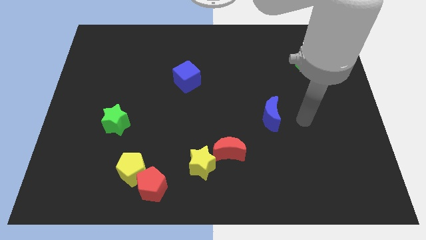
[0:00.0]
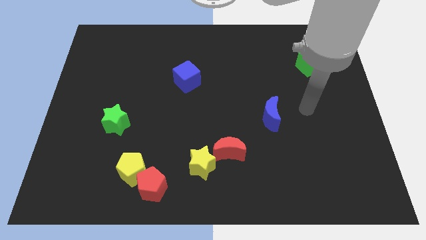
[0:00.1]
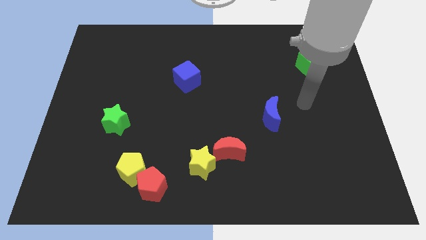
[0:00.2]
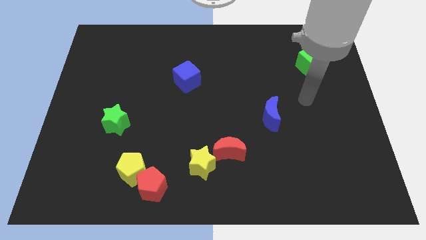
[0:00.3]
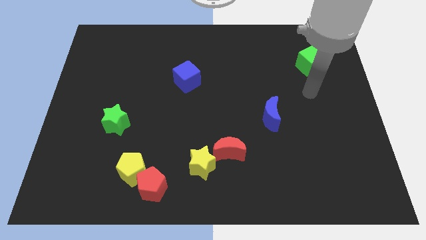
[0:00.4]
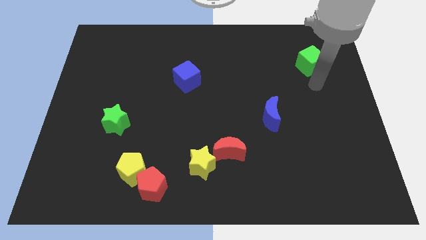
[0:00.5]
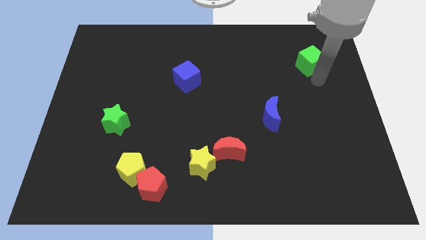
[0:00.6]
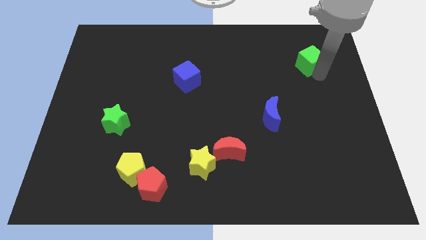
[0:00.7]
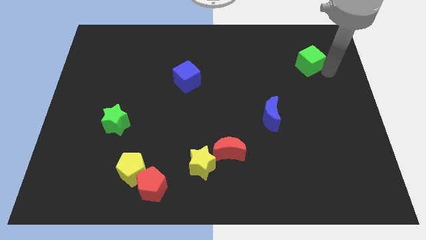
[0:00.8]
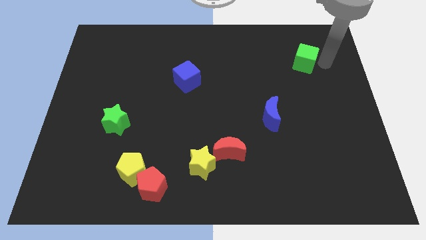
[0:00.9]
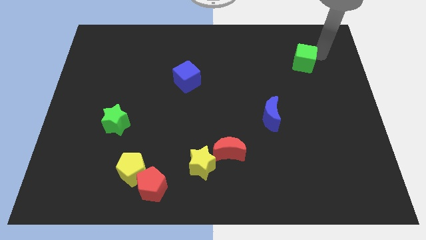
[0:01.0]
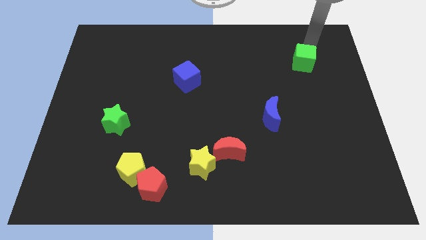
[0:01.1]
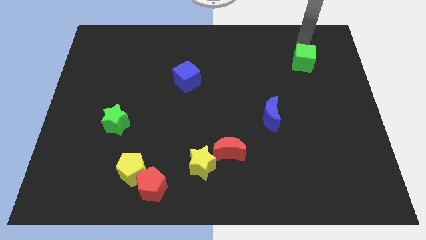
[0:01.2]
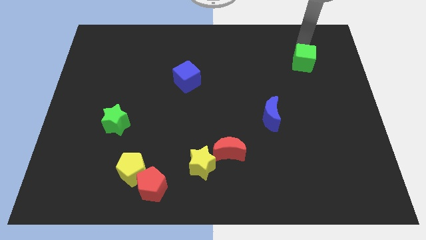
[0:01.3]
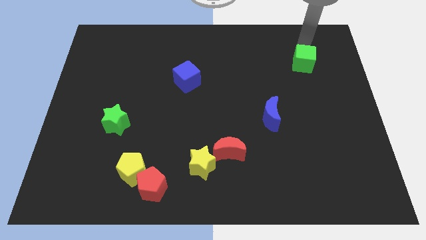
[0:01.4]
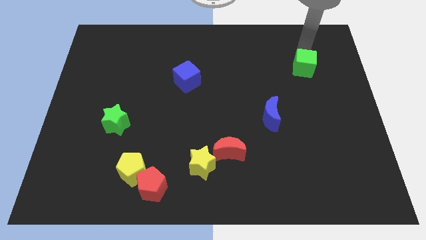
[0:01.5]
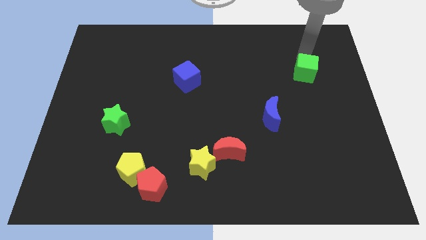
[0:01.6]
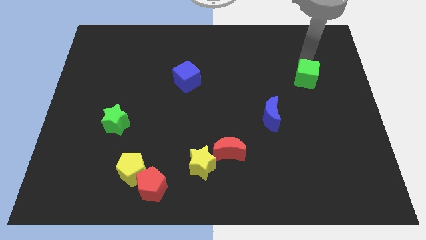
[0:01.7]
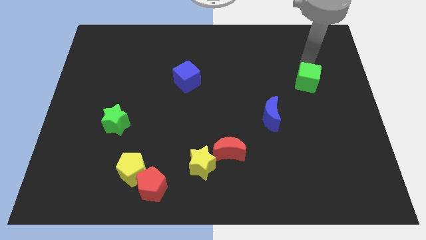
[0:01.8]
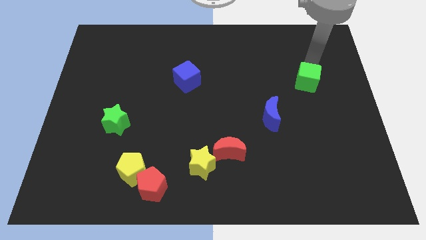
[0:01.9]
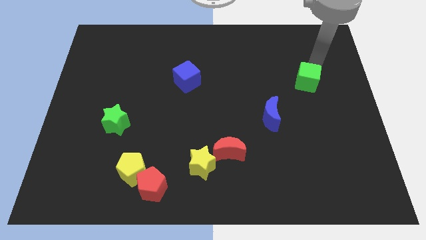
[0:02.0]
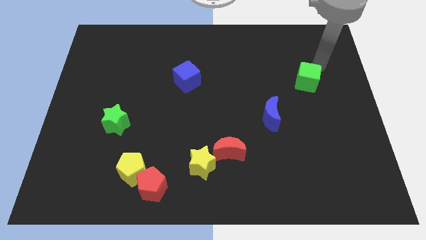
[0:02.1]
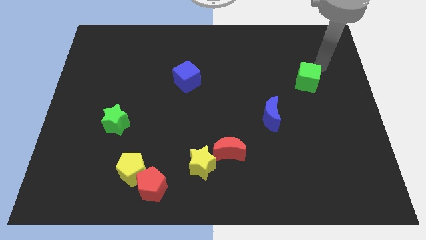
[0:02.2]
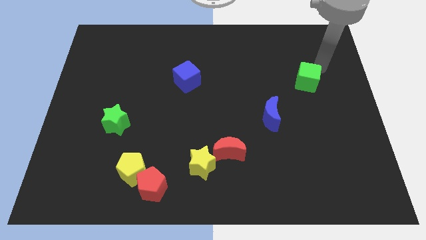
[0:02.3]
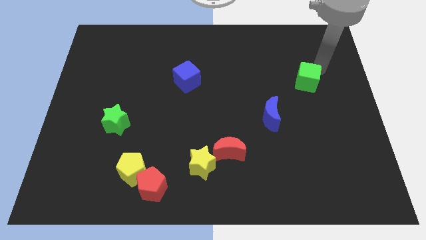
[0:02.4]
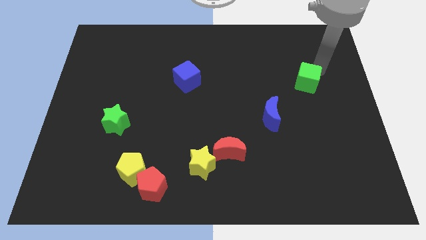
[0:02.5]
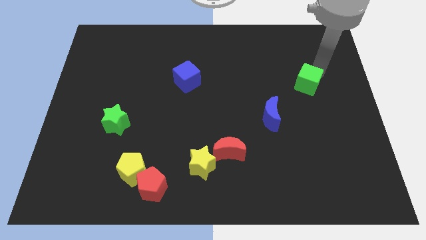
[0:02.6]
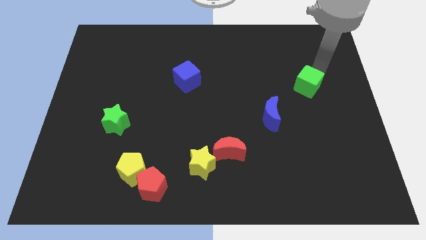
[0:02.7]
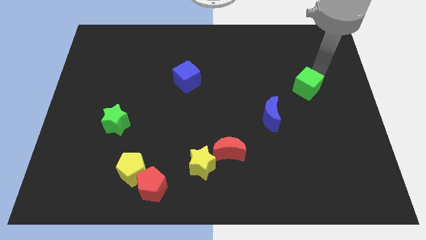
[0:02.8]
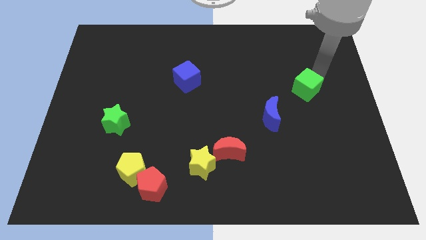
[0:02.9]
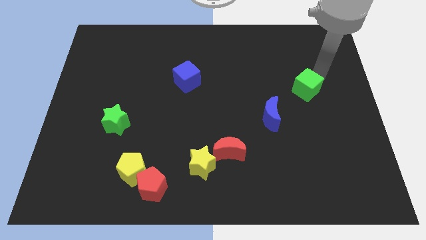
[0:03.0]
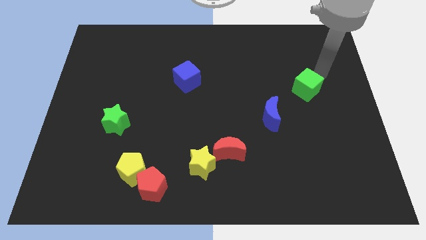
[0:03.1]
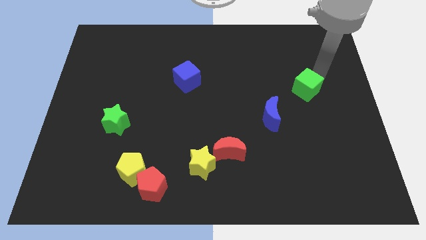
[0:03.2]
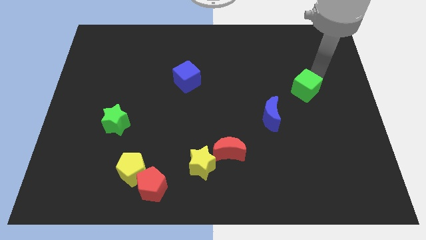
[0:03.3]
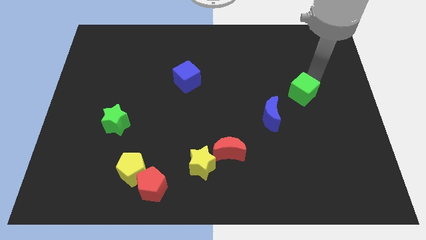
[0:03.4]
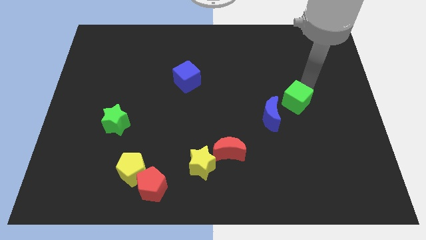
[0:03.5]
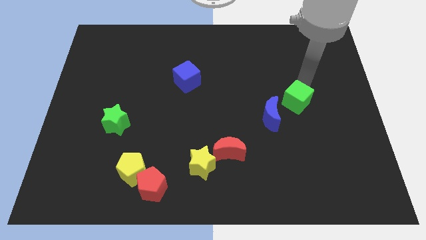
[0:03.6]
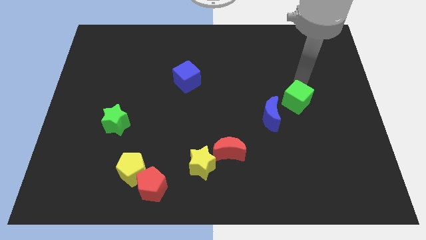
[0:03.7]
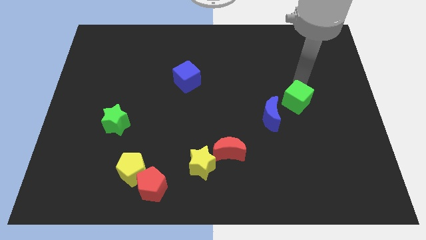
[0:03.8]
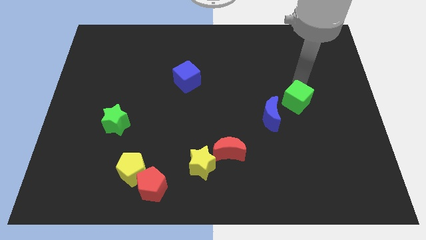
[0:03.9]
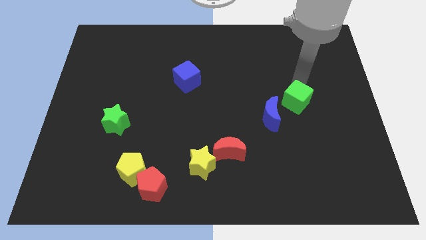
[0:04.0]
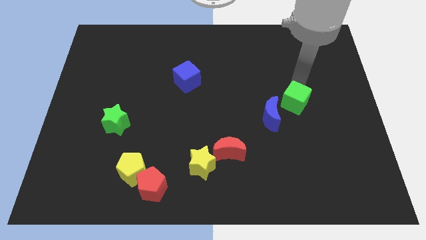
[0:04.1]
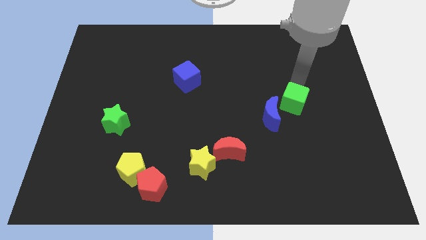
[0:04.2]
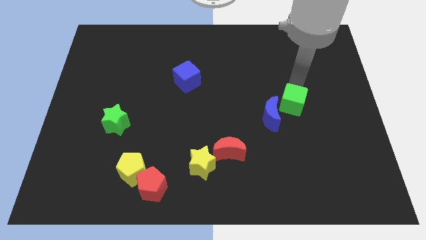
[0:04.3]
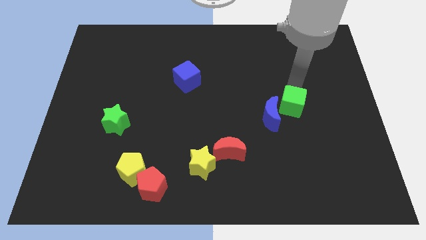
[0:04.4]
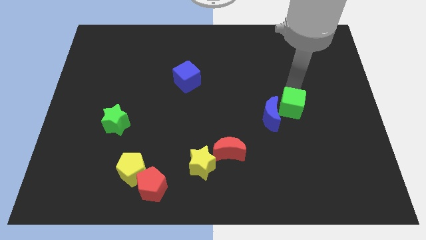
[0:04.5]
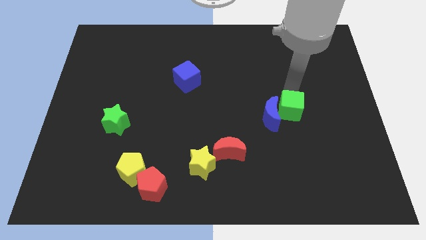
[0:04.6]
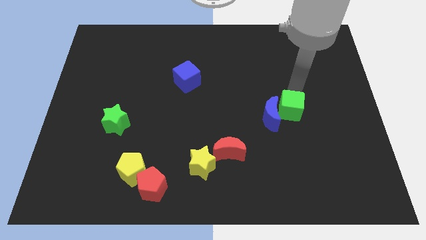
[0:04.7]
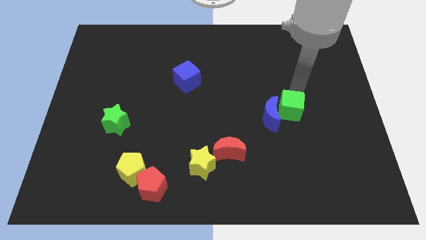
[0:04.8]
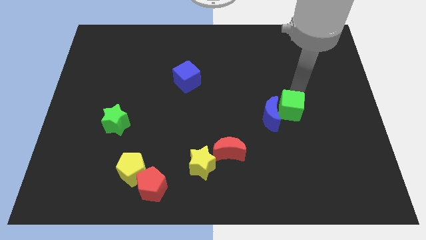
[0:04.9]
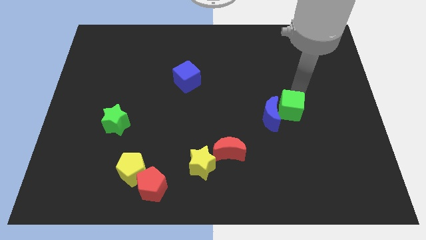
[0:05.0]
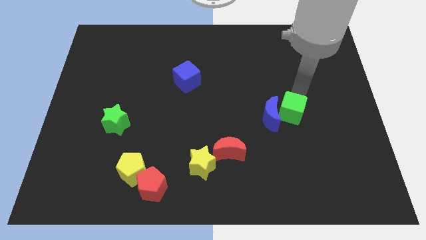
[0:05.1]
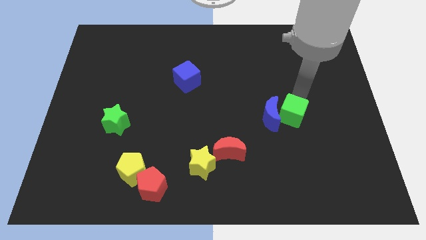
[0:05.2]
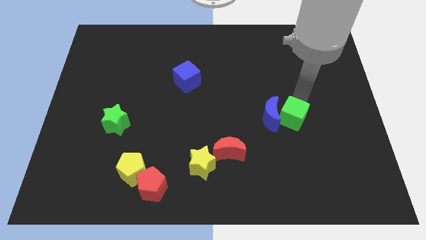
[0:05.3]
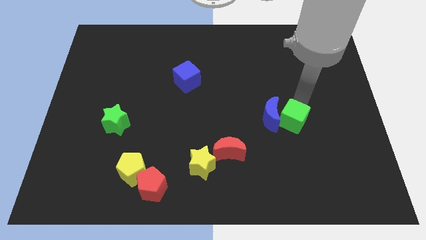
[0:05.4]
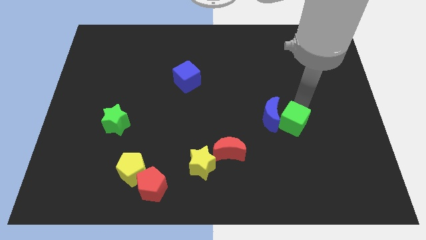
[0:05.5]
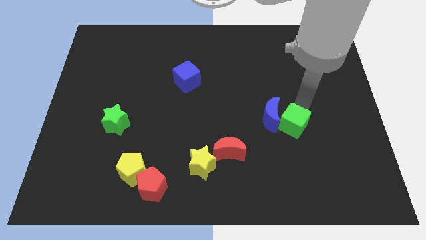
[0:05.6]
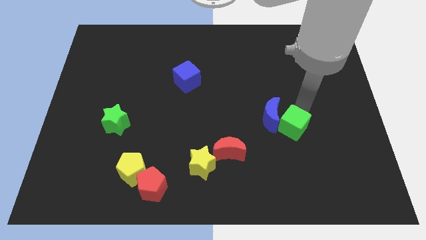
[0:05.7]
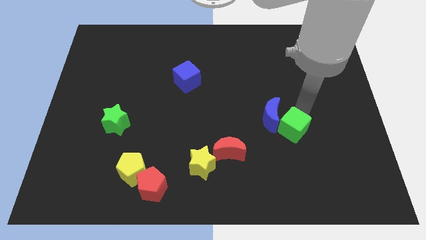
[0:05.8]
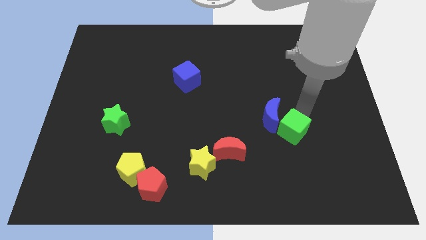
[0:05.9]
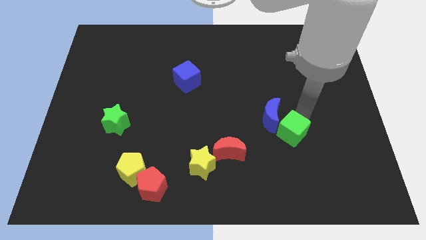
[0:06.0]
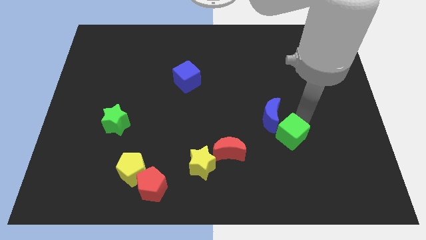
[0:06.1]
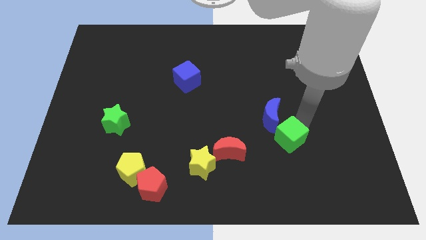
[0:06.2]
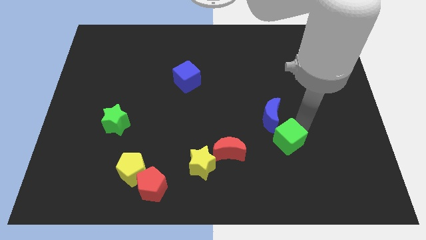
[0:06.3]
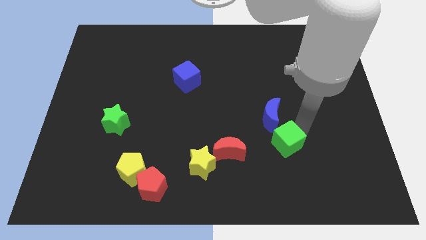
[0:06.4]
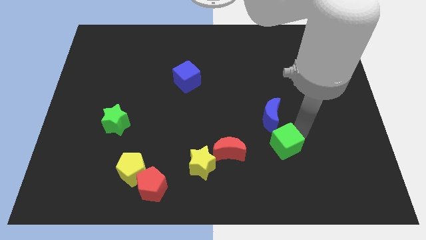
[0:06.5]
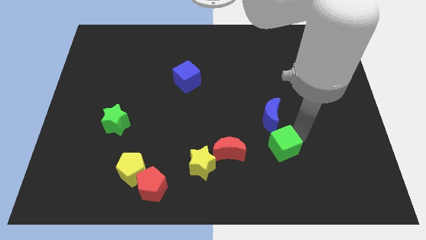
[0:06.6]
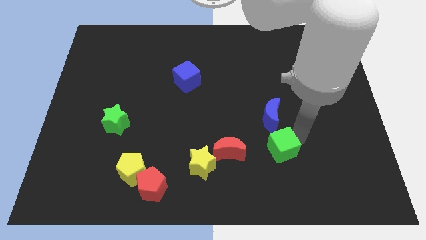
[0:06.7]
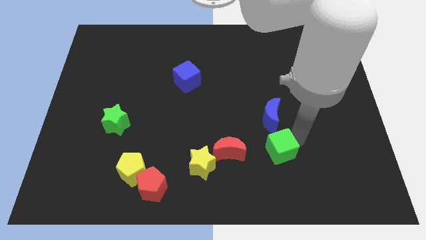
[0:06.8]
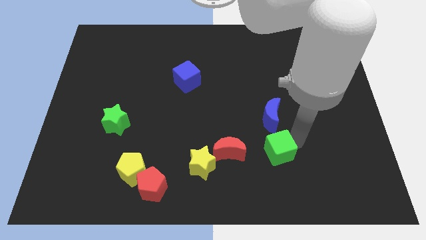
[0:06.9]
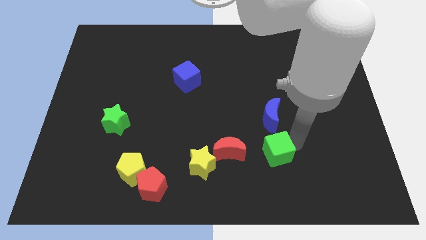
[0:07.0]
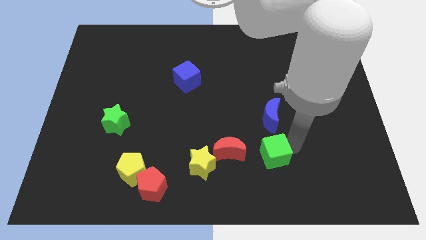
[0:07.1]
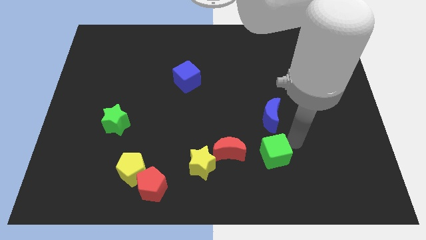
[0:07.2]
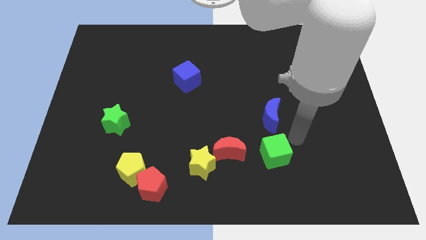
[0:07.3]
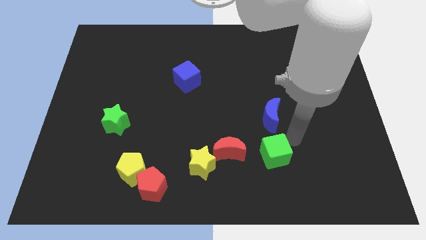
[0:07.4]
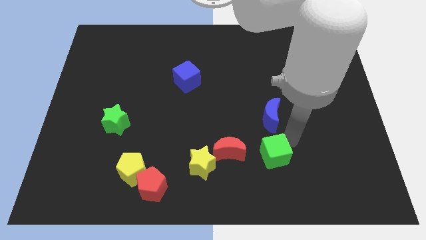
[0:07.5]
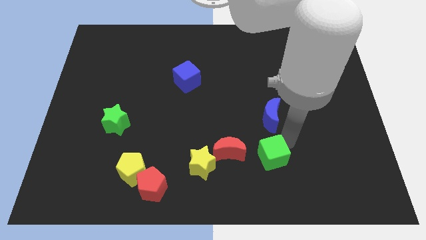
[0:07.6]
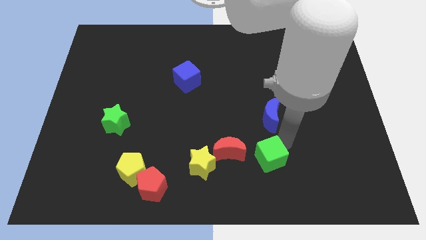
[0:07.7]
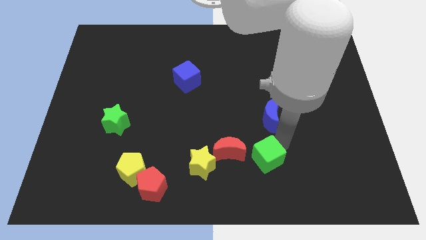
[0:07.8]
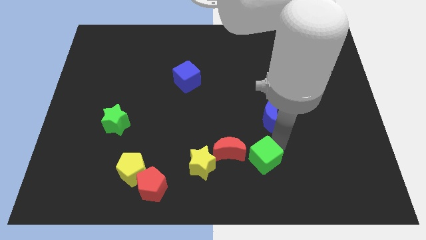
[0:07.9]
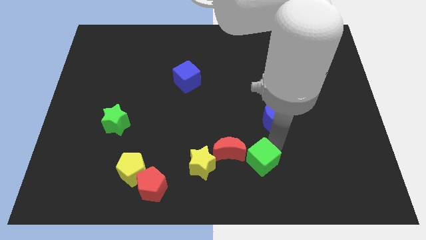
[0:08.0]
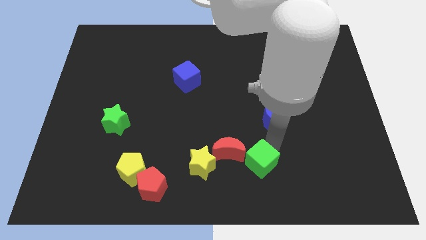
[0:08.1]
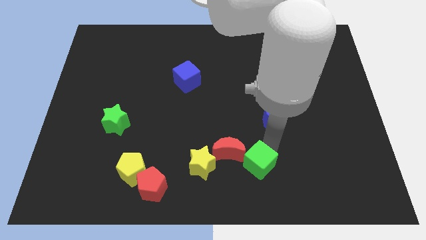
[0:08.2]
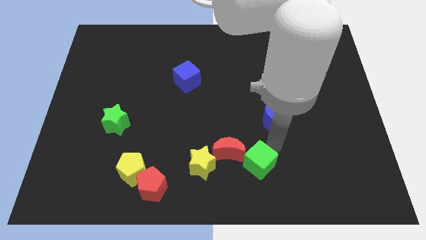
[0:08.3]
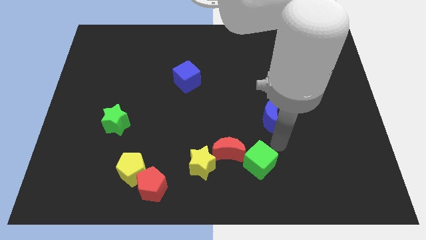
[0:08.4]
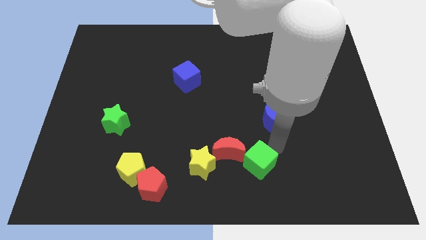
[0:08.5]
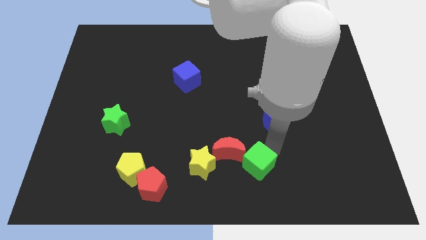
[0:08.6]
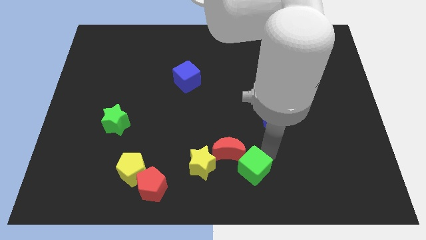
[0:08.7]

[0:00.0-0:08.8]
slide the green cube to the bottom
